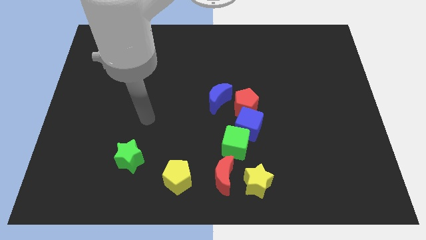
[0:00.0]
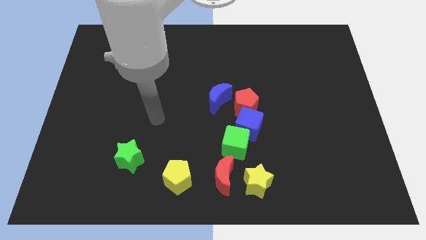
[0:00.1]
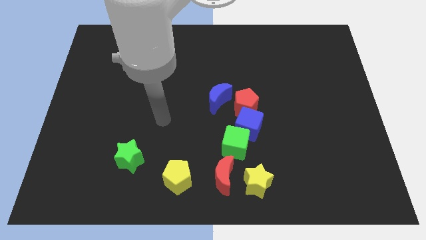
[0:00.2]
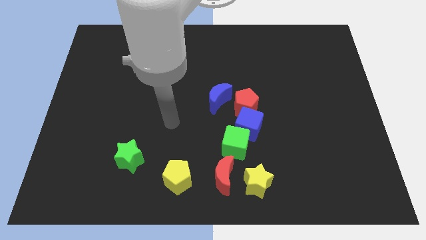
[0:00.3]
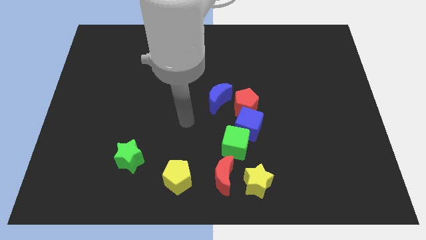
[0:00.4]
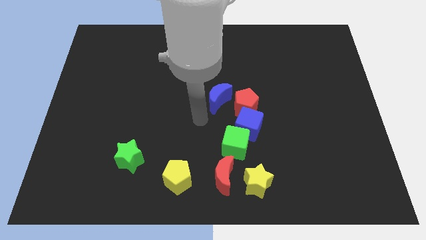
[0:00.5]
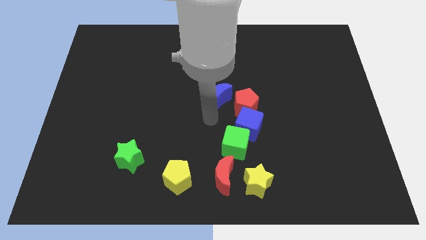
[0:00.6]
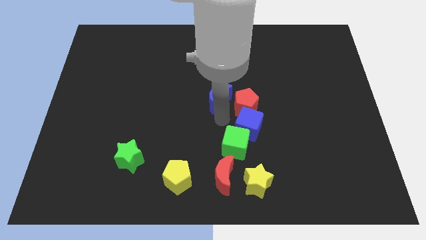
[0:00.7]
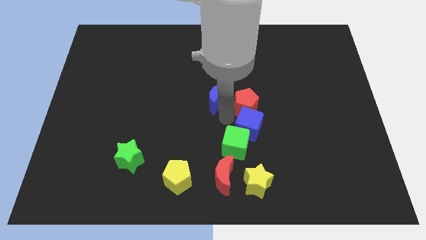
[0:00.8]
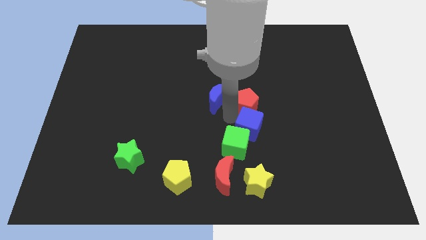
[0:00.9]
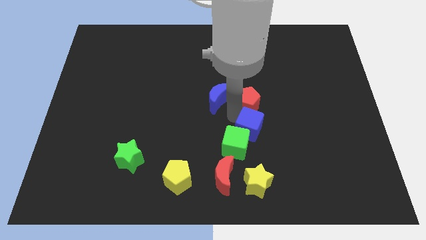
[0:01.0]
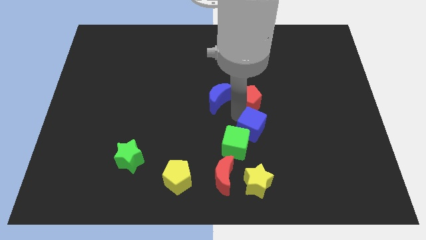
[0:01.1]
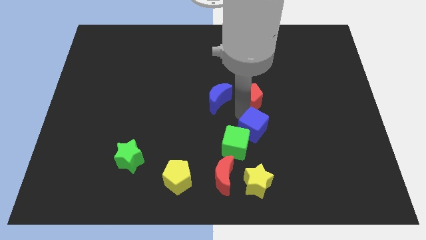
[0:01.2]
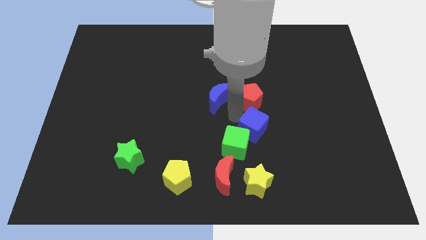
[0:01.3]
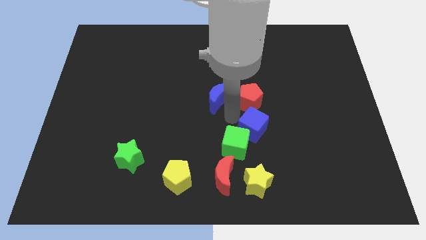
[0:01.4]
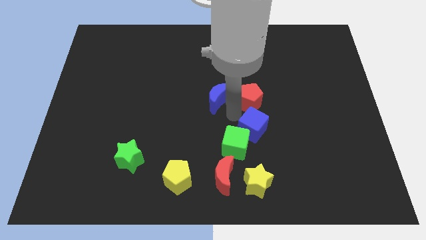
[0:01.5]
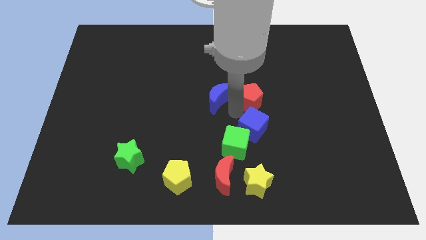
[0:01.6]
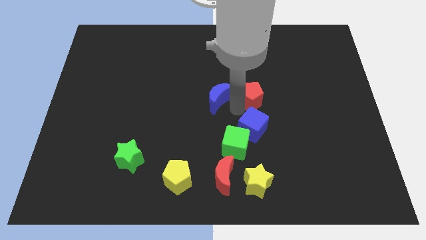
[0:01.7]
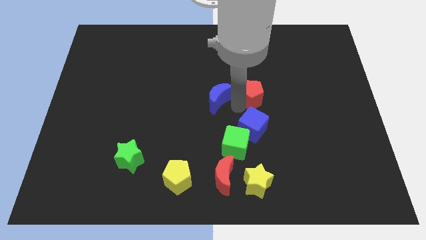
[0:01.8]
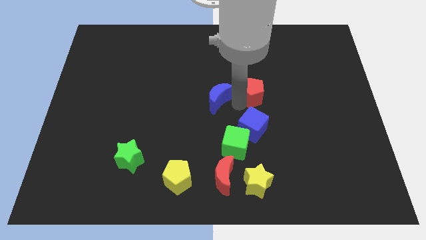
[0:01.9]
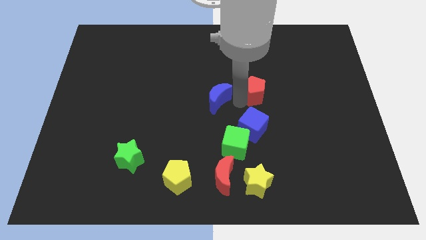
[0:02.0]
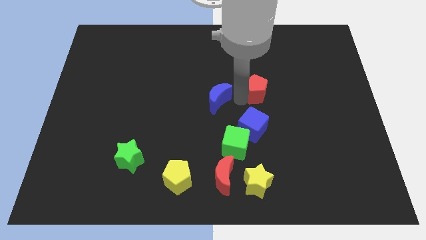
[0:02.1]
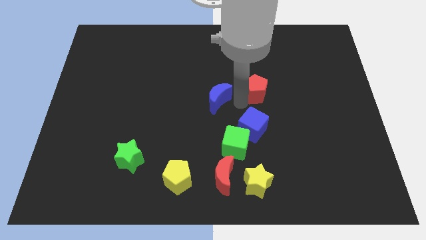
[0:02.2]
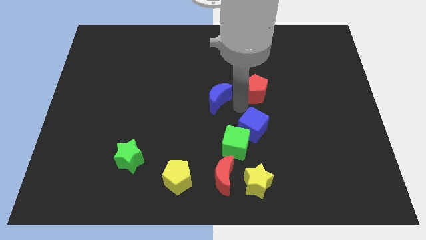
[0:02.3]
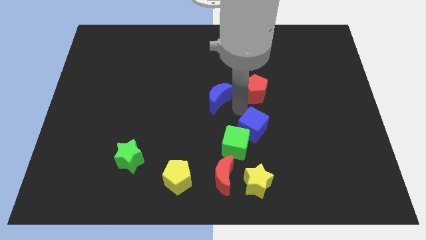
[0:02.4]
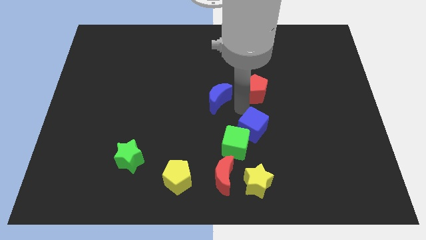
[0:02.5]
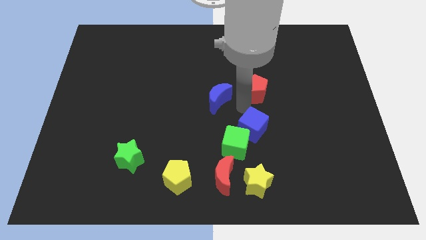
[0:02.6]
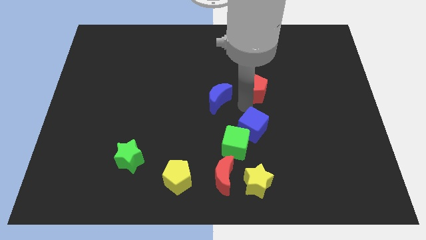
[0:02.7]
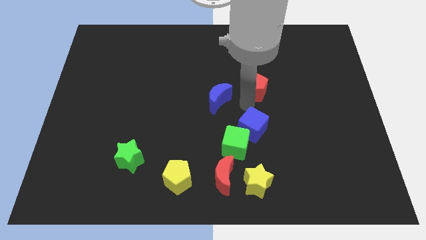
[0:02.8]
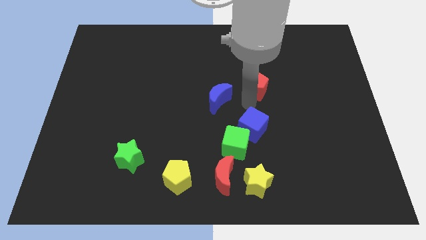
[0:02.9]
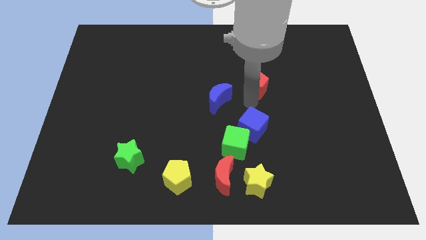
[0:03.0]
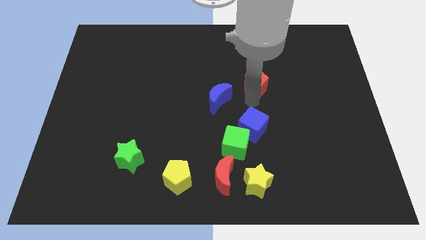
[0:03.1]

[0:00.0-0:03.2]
pull the red pentagon apart from the blue cube and blue moon

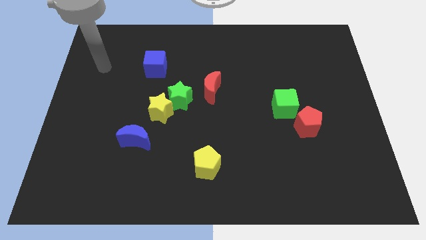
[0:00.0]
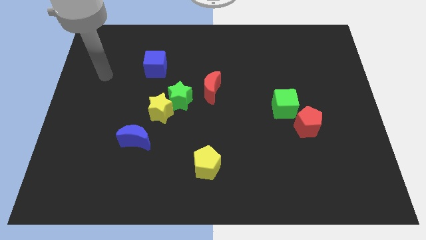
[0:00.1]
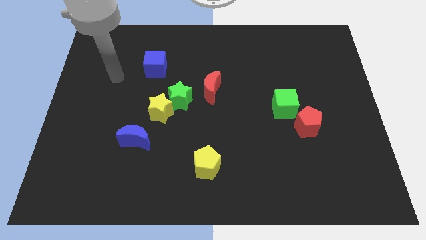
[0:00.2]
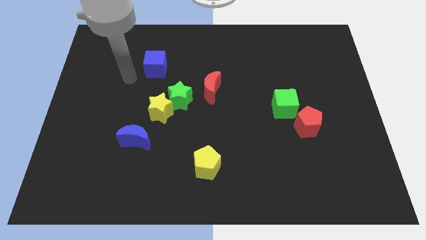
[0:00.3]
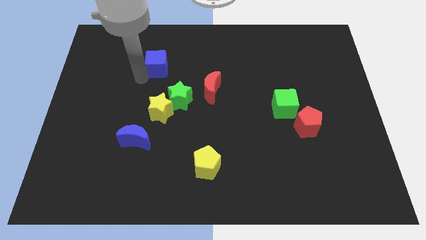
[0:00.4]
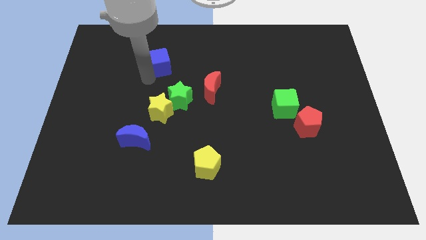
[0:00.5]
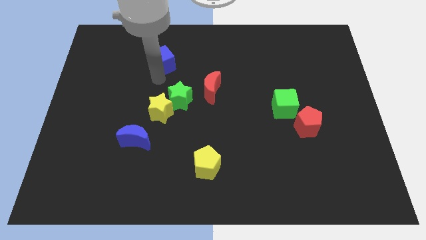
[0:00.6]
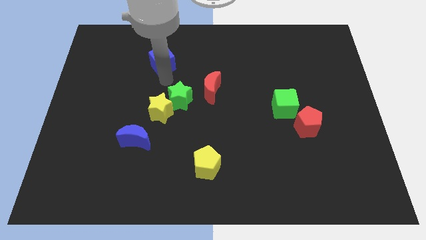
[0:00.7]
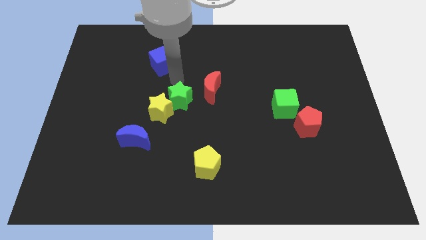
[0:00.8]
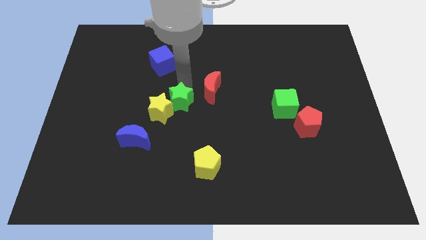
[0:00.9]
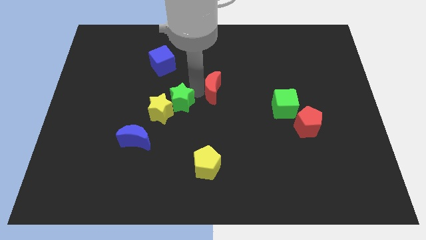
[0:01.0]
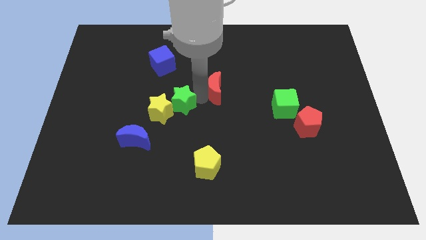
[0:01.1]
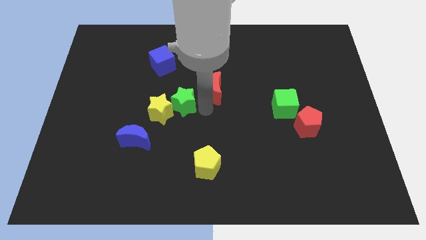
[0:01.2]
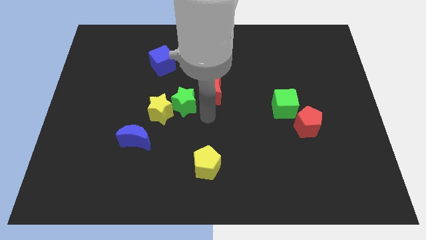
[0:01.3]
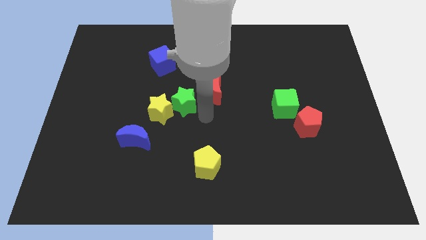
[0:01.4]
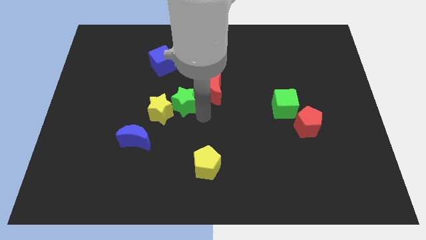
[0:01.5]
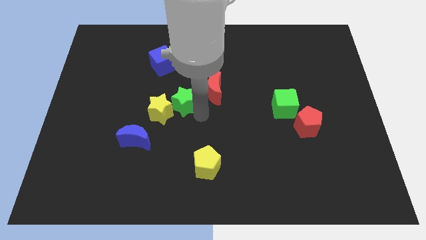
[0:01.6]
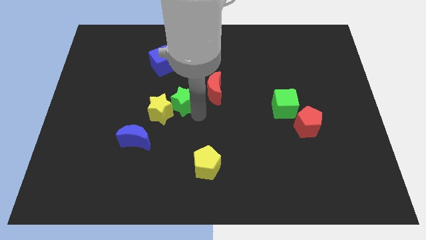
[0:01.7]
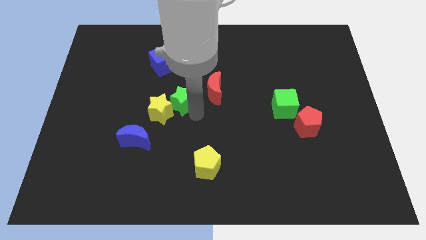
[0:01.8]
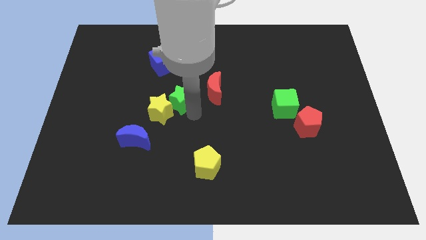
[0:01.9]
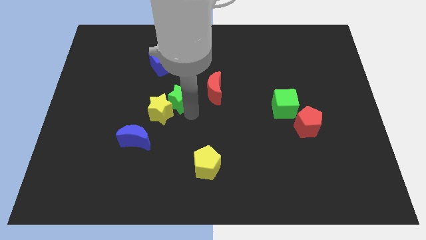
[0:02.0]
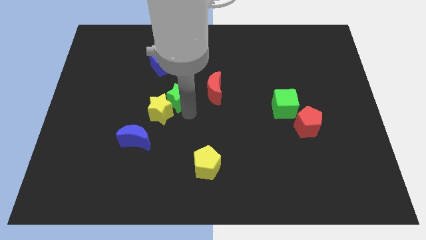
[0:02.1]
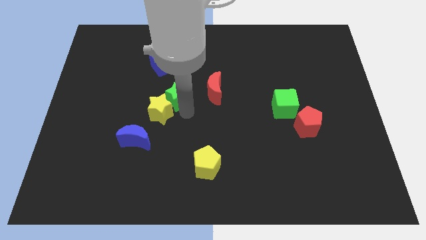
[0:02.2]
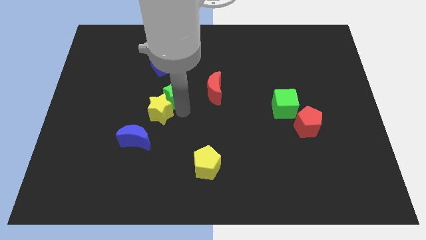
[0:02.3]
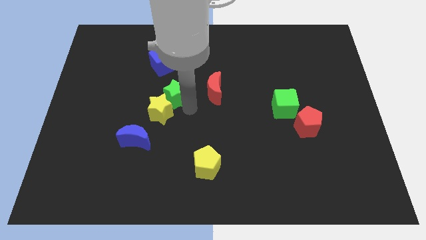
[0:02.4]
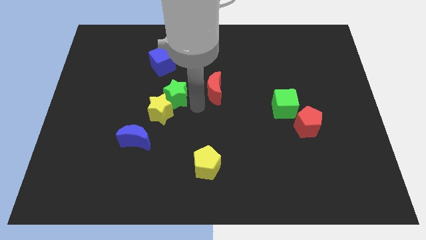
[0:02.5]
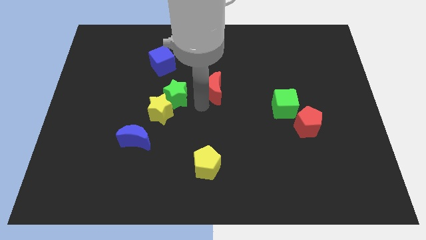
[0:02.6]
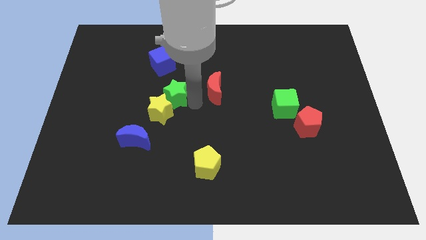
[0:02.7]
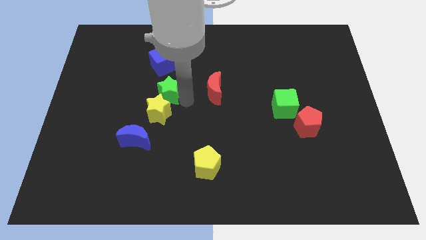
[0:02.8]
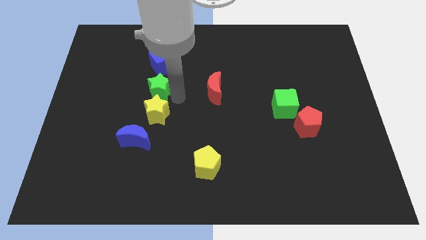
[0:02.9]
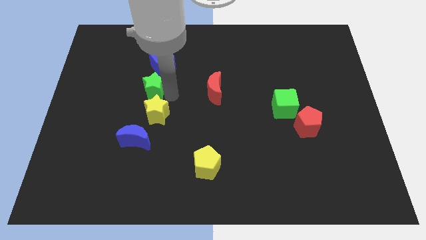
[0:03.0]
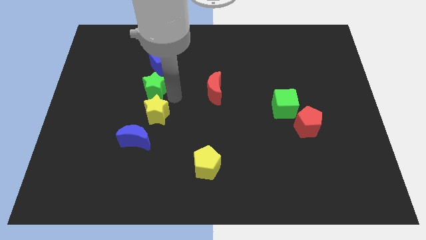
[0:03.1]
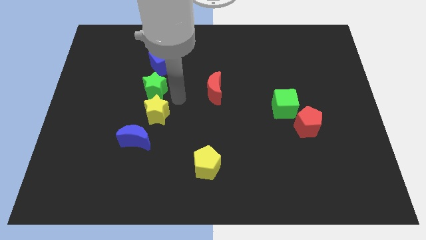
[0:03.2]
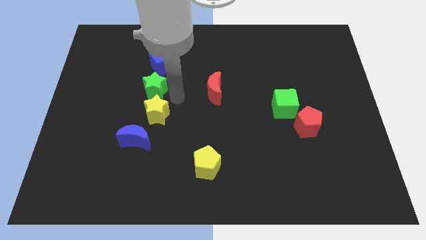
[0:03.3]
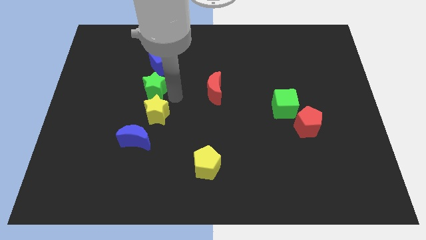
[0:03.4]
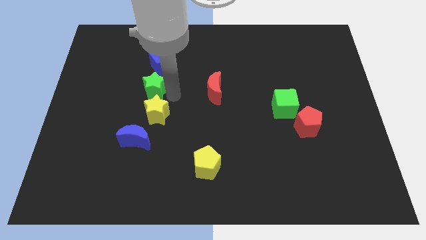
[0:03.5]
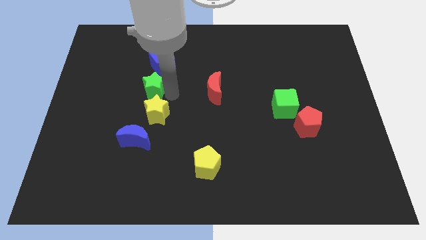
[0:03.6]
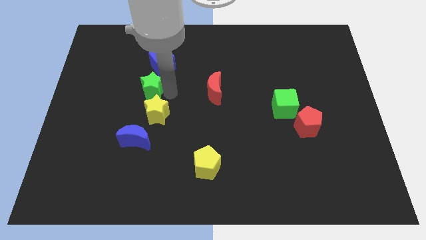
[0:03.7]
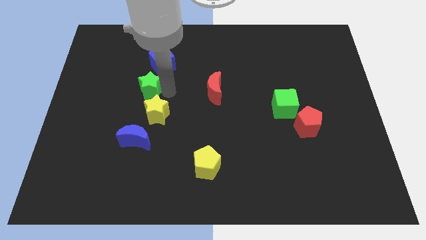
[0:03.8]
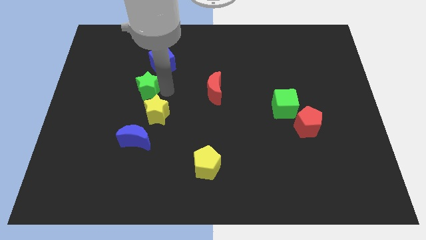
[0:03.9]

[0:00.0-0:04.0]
move the green star away from the yellow star and red moon

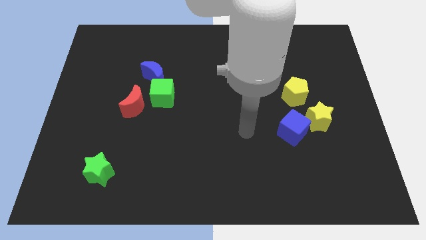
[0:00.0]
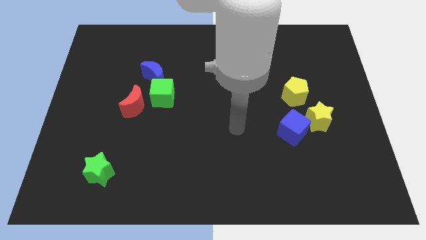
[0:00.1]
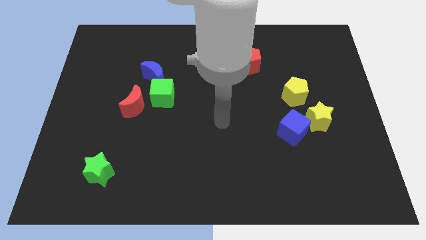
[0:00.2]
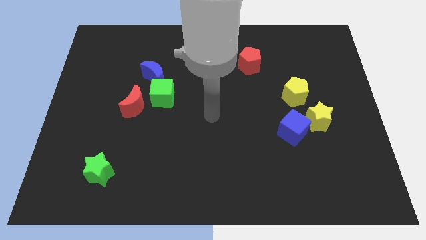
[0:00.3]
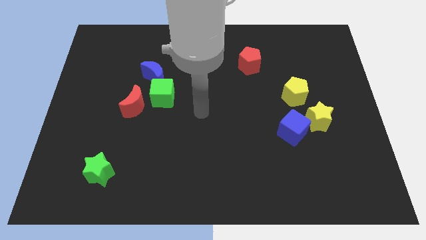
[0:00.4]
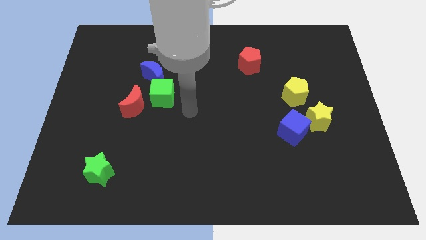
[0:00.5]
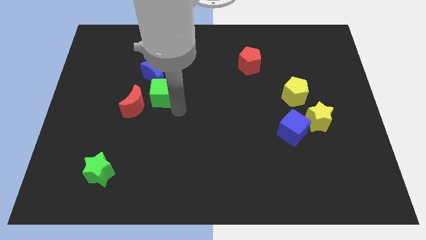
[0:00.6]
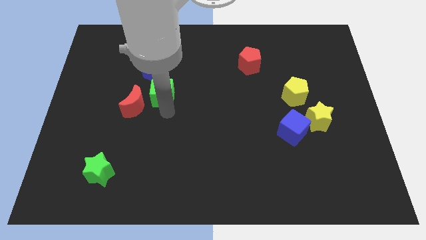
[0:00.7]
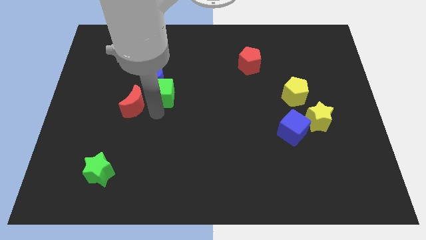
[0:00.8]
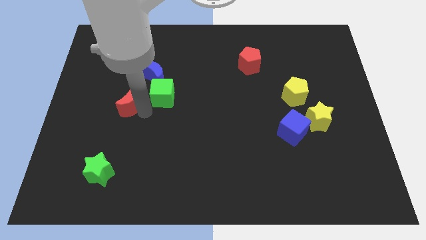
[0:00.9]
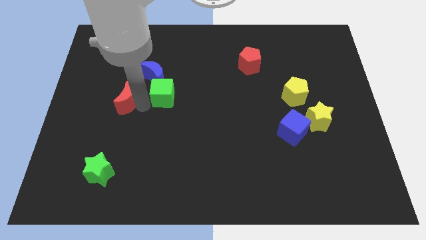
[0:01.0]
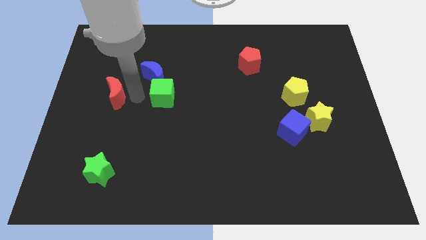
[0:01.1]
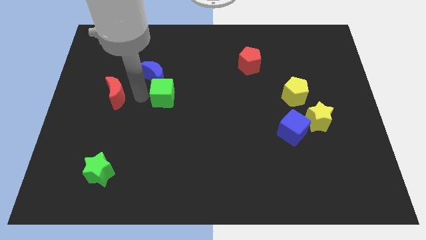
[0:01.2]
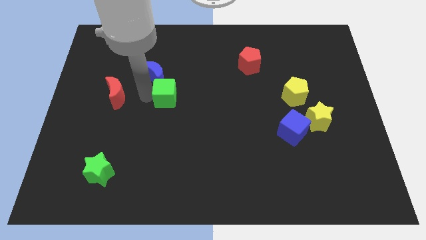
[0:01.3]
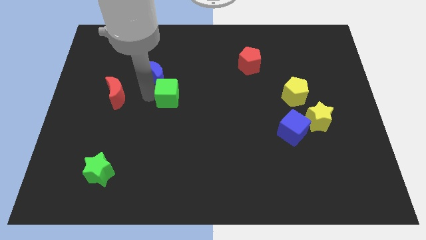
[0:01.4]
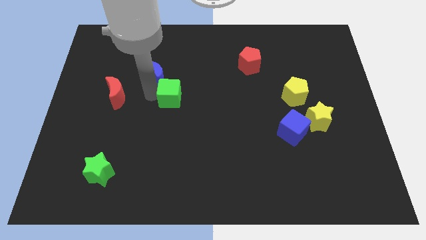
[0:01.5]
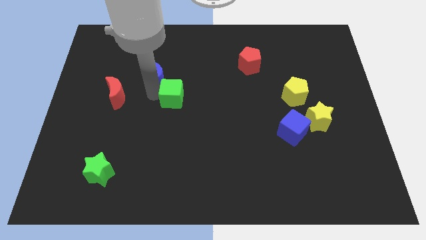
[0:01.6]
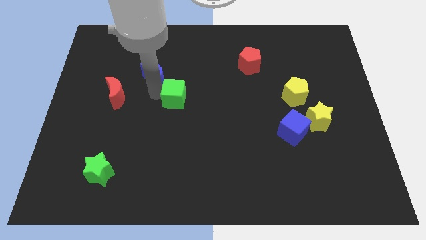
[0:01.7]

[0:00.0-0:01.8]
separate the green cube from the blue moon and red moon

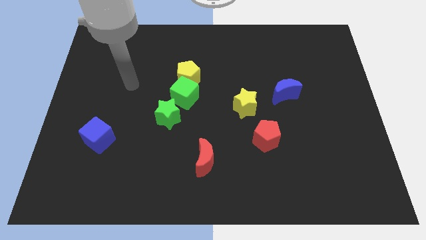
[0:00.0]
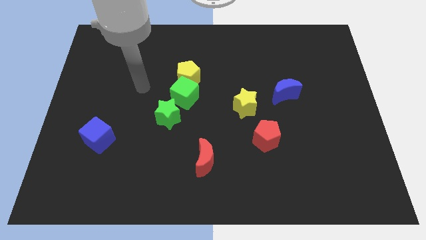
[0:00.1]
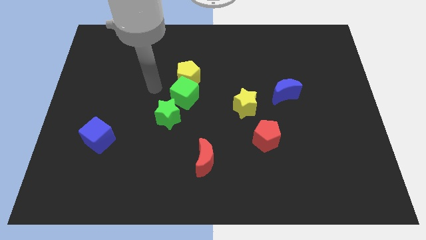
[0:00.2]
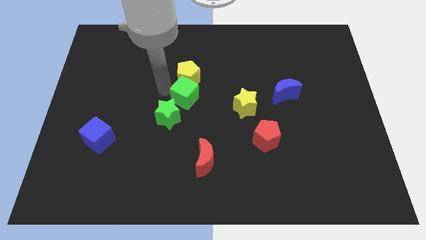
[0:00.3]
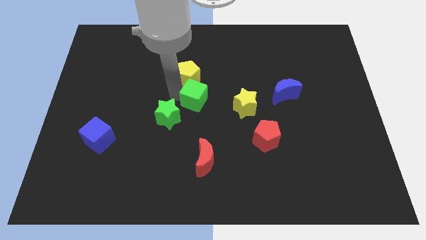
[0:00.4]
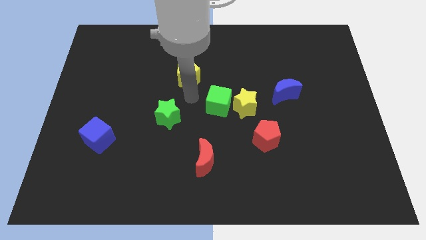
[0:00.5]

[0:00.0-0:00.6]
separate the yellow pentagon from the green cube
